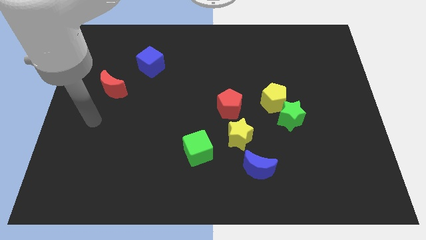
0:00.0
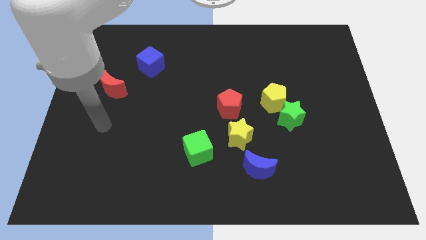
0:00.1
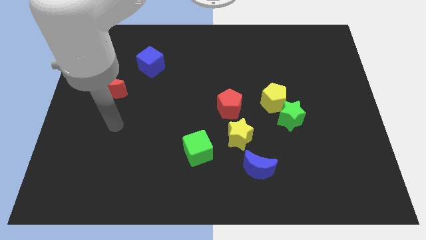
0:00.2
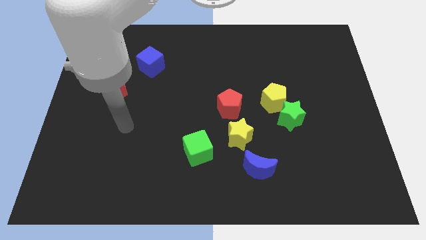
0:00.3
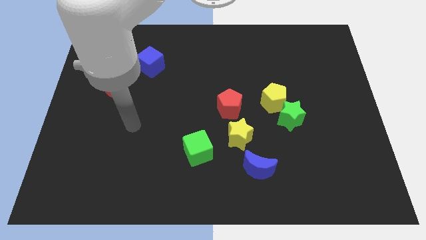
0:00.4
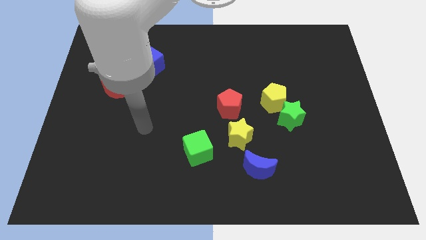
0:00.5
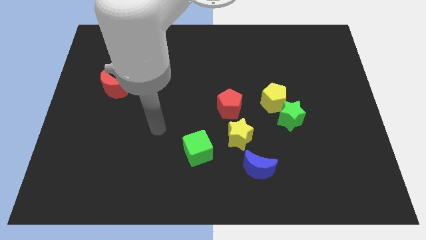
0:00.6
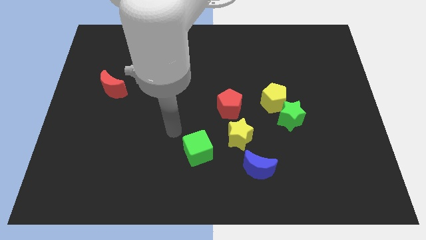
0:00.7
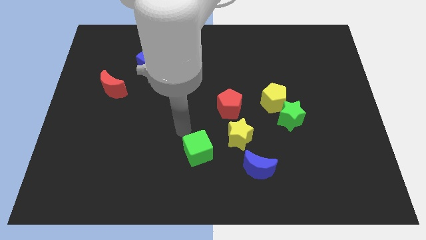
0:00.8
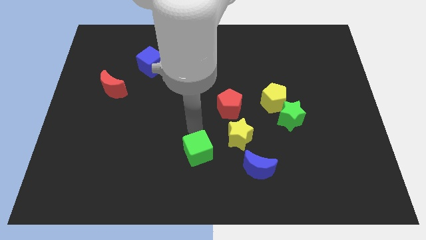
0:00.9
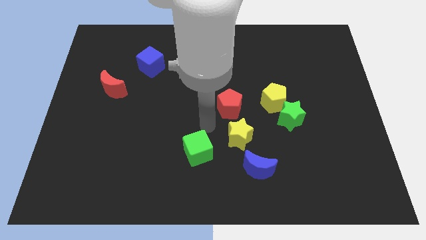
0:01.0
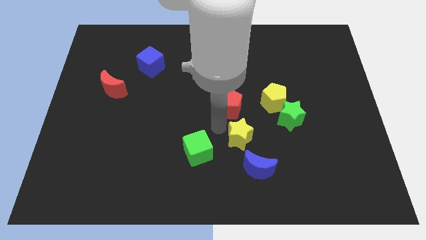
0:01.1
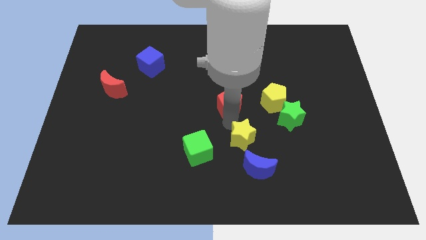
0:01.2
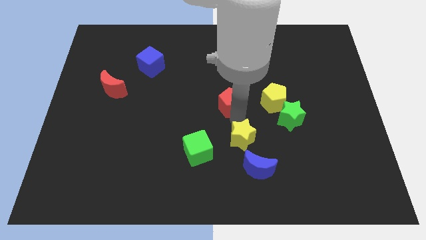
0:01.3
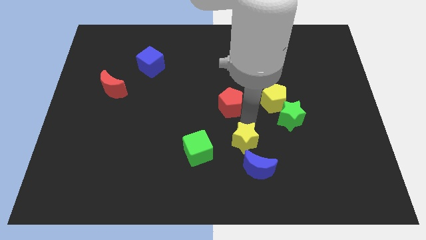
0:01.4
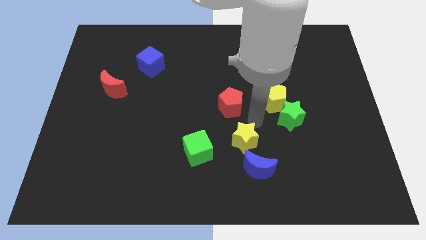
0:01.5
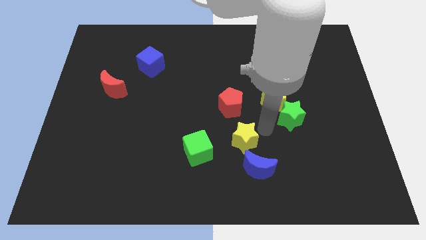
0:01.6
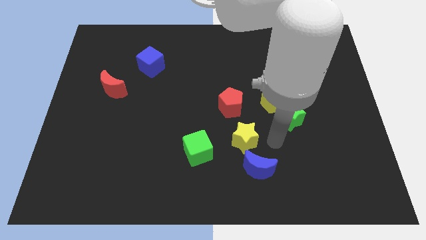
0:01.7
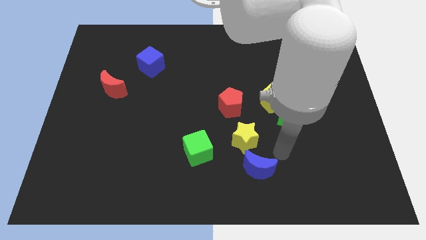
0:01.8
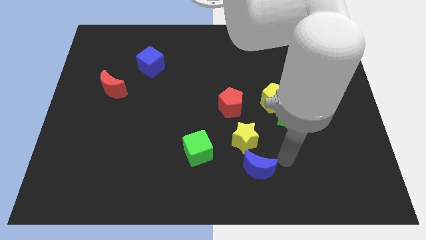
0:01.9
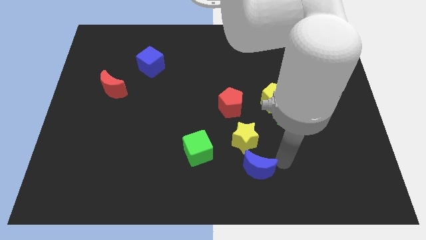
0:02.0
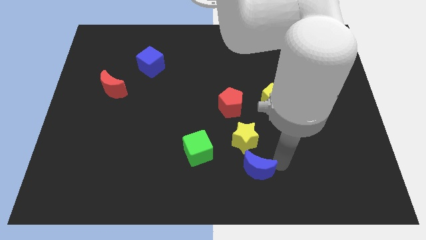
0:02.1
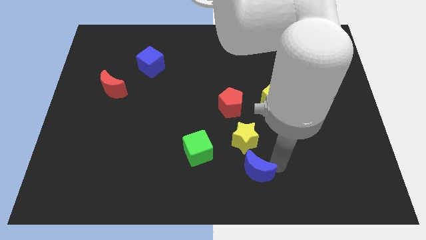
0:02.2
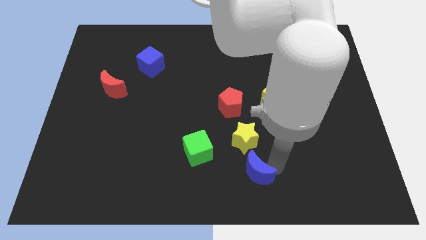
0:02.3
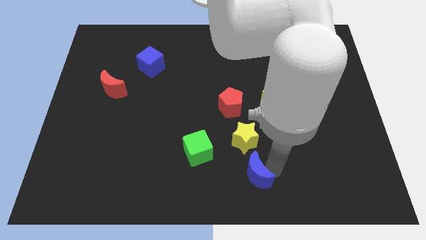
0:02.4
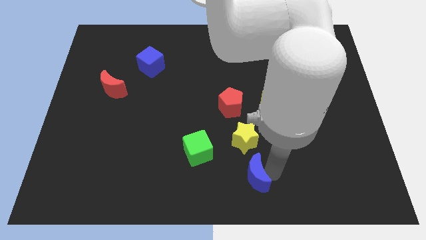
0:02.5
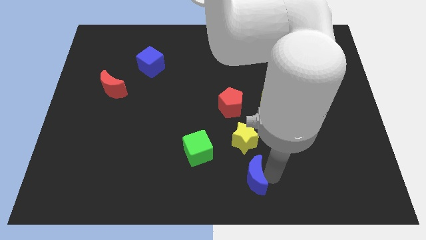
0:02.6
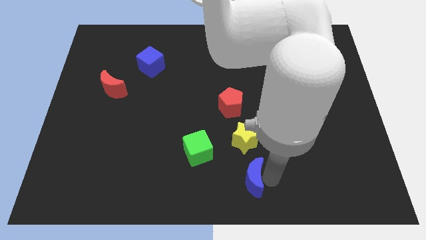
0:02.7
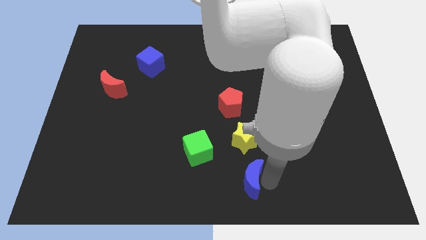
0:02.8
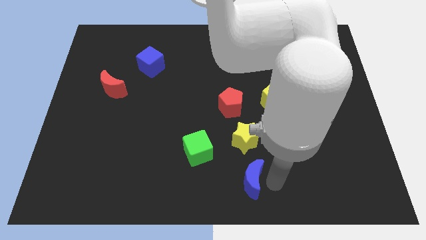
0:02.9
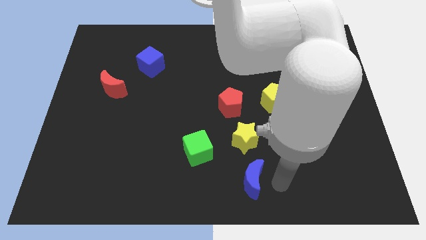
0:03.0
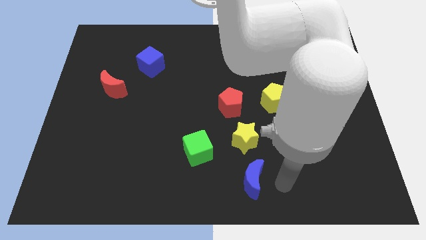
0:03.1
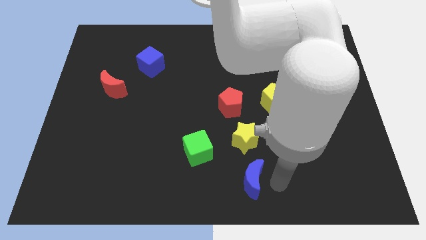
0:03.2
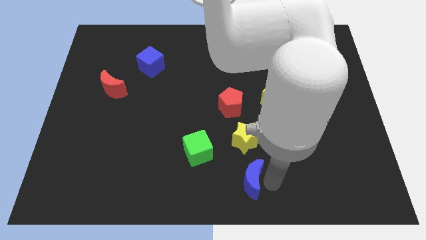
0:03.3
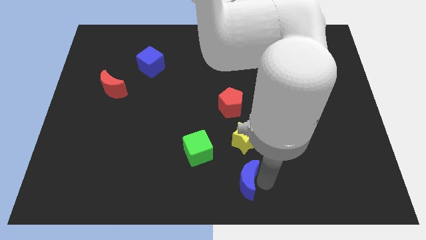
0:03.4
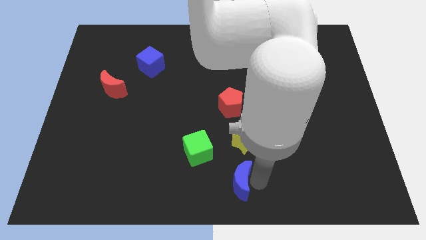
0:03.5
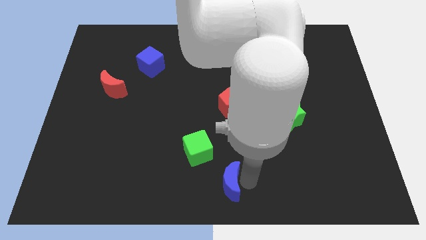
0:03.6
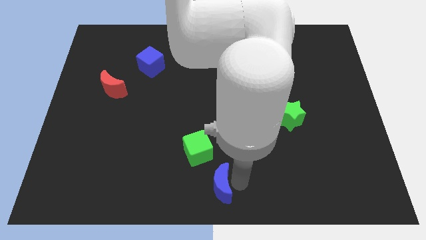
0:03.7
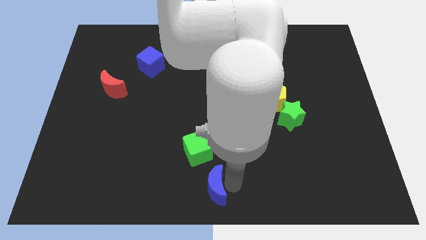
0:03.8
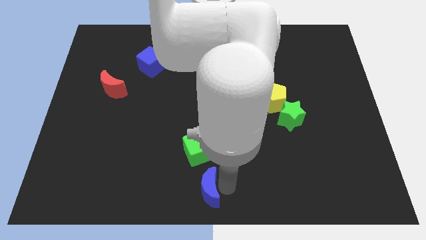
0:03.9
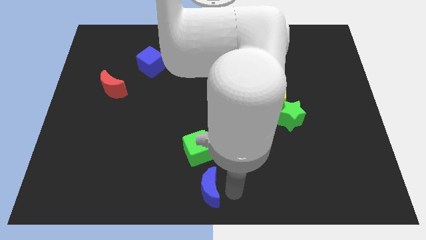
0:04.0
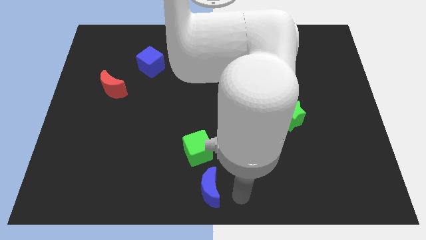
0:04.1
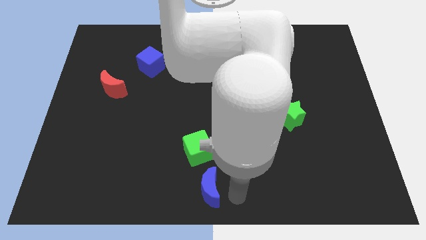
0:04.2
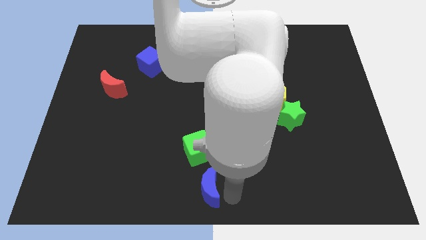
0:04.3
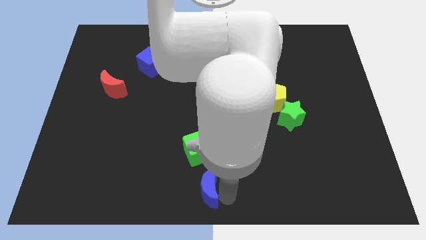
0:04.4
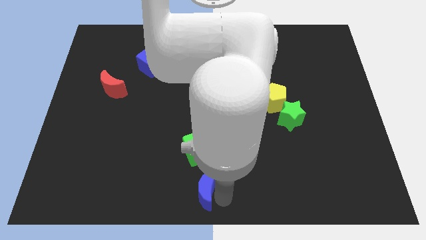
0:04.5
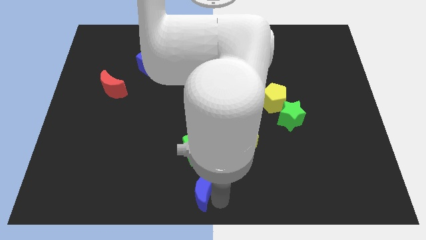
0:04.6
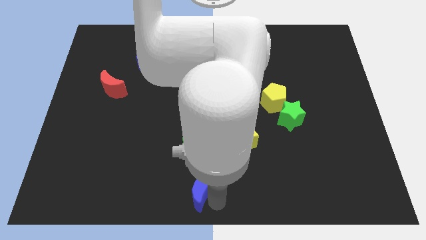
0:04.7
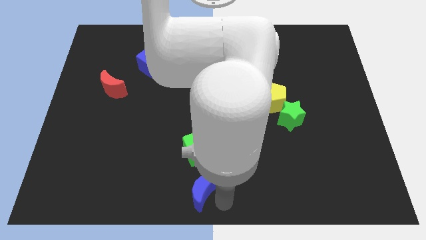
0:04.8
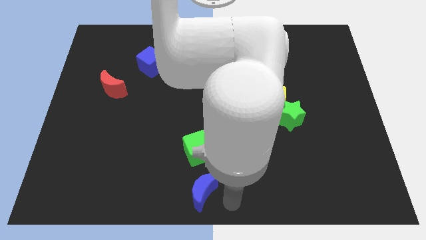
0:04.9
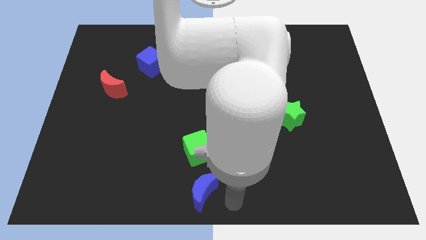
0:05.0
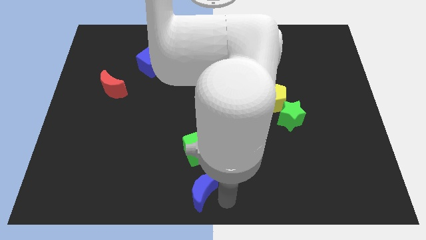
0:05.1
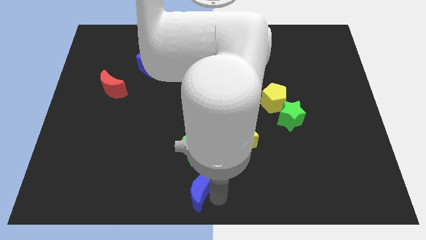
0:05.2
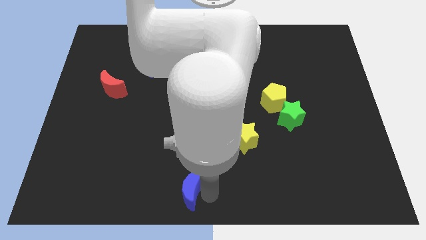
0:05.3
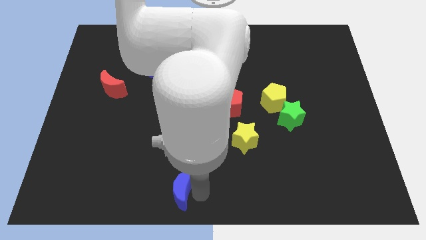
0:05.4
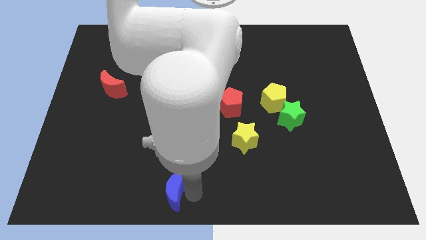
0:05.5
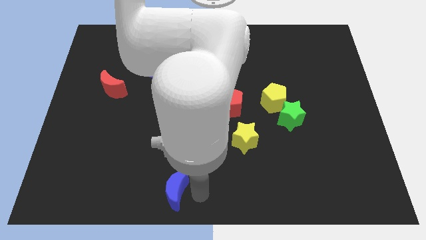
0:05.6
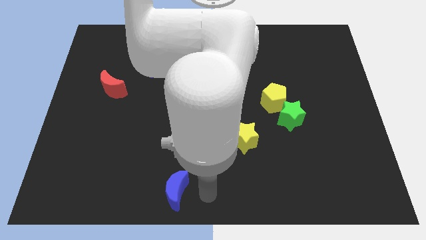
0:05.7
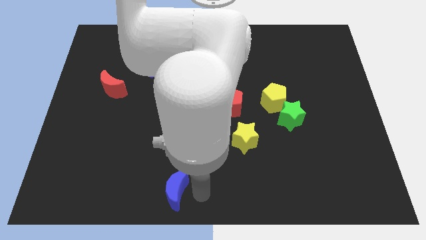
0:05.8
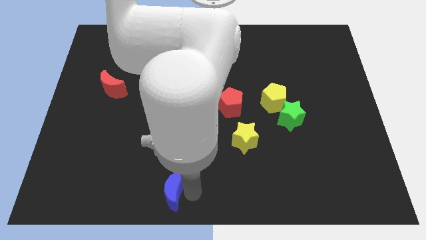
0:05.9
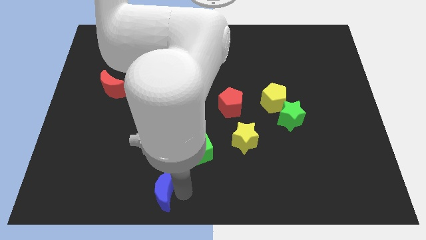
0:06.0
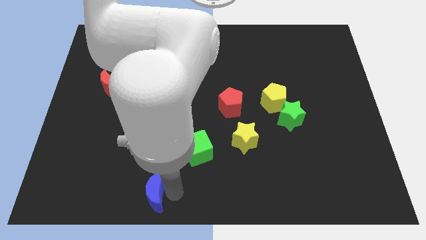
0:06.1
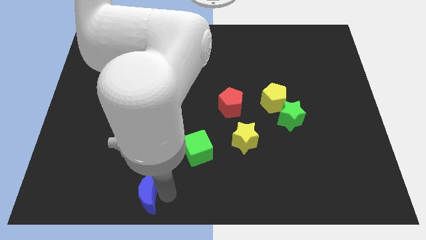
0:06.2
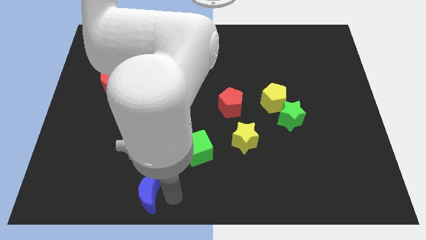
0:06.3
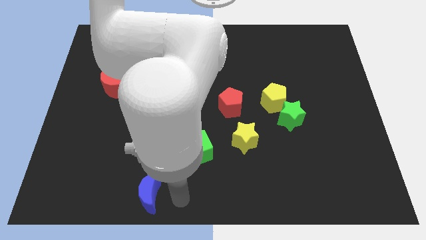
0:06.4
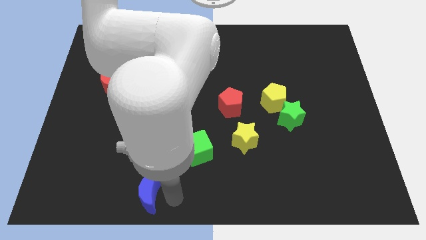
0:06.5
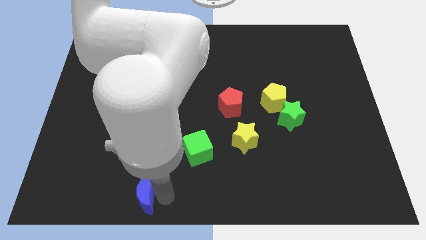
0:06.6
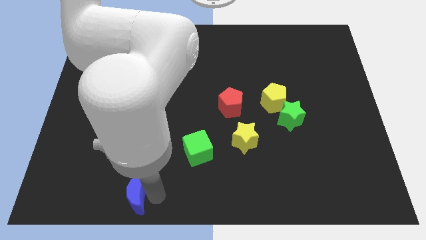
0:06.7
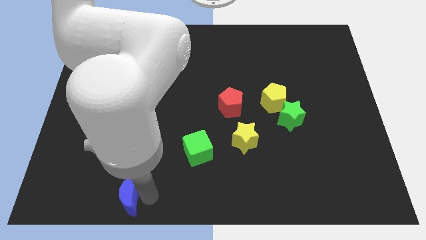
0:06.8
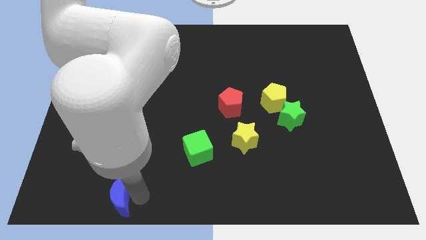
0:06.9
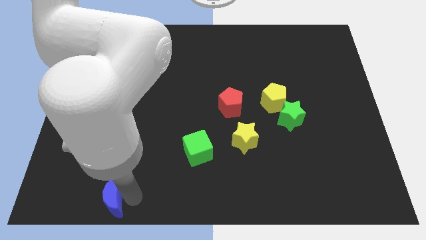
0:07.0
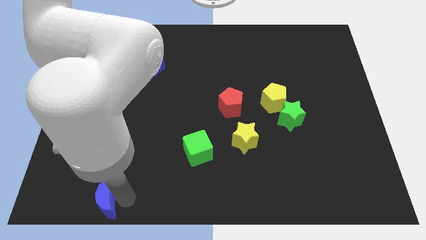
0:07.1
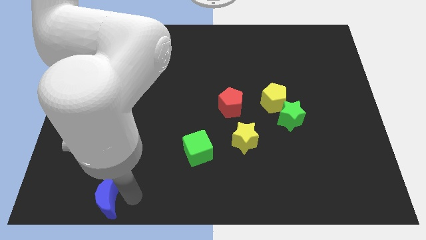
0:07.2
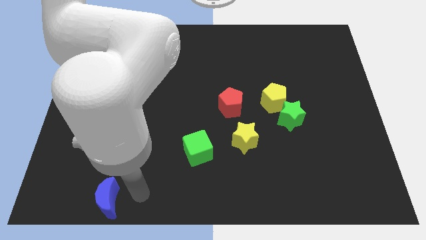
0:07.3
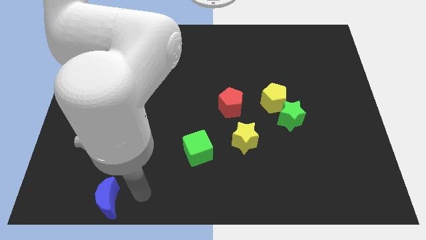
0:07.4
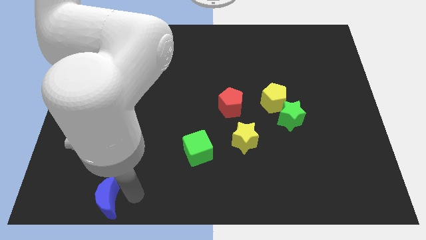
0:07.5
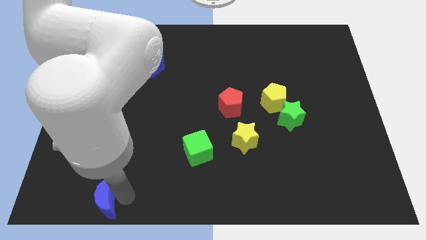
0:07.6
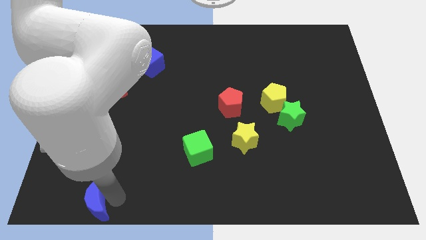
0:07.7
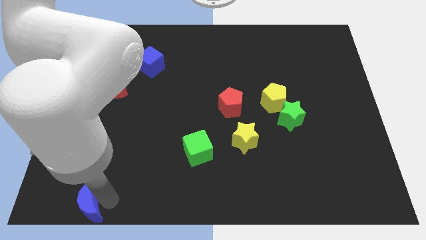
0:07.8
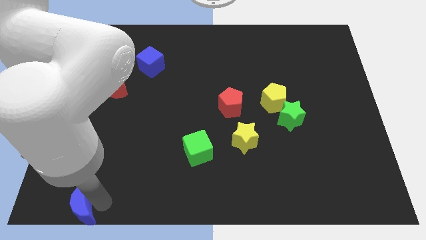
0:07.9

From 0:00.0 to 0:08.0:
move the blue moon to the bottom left
